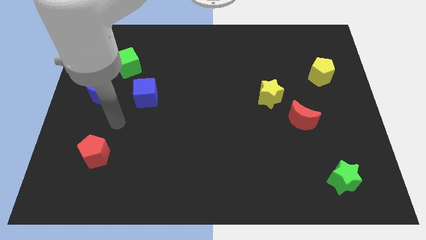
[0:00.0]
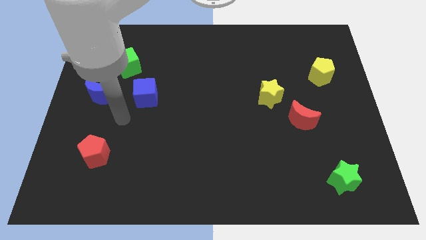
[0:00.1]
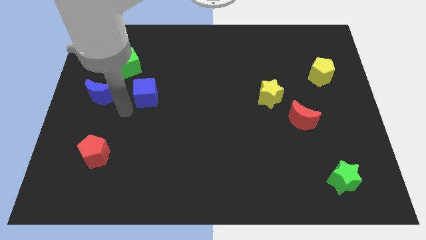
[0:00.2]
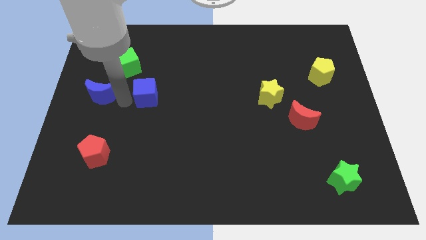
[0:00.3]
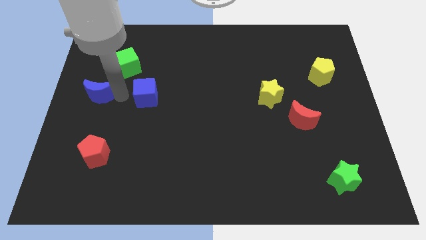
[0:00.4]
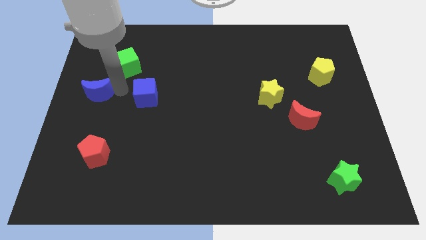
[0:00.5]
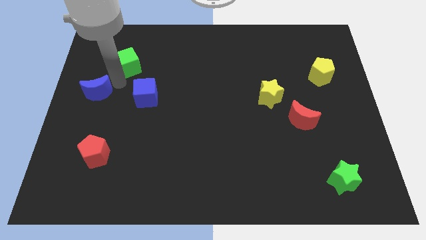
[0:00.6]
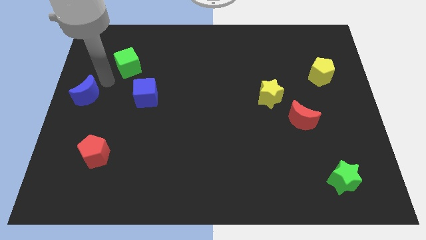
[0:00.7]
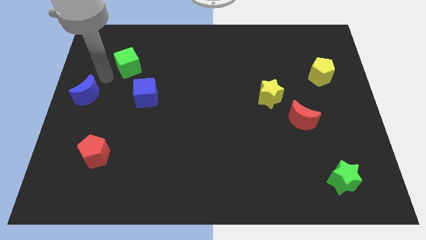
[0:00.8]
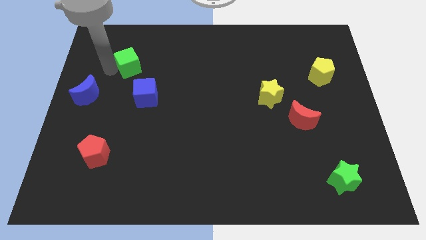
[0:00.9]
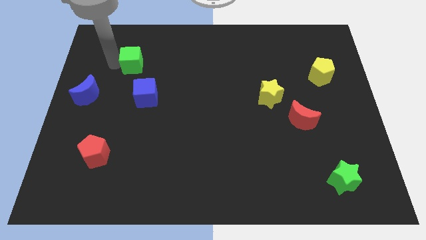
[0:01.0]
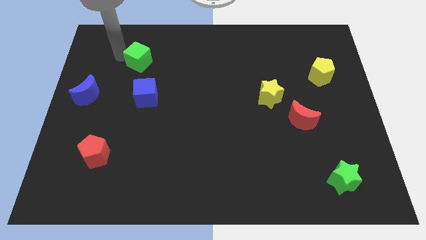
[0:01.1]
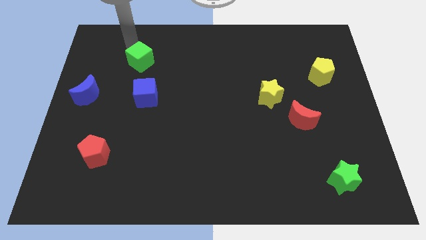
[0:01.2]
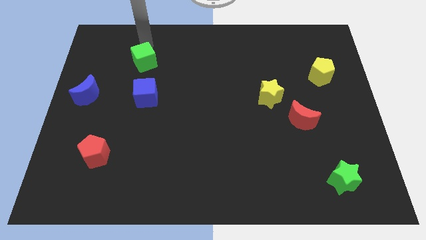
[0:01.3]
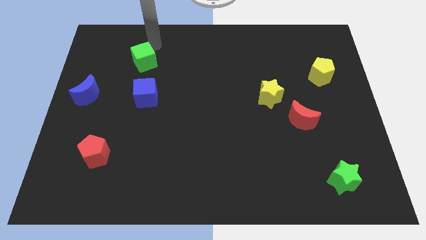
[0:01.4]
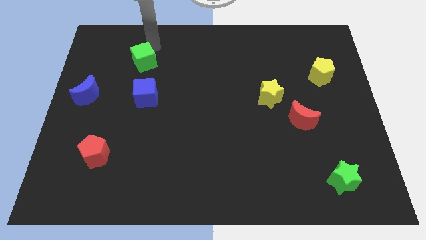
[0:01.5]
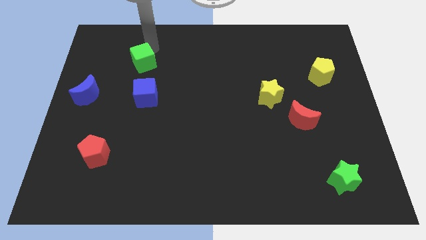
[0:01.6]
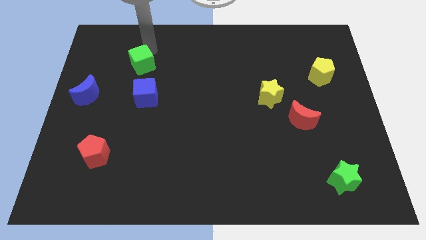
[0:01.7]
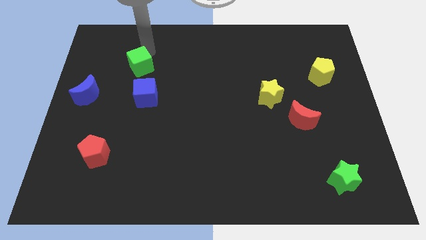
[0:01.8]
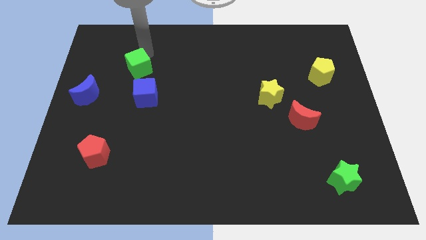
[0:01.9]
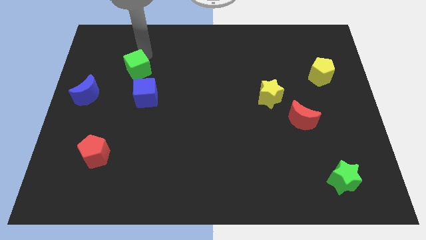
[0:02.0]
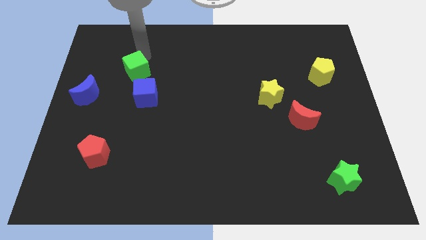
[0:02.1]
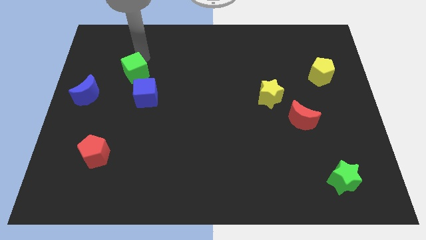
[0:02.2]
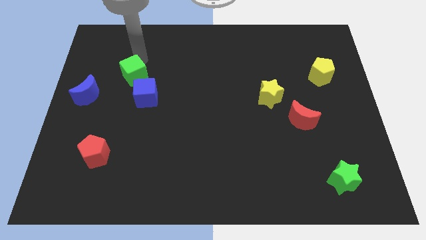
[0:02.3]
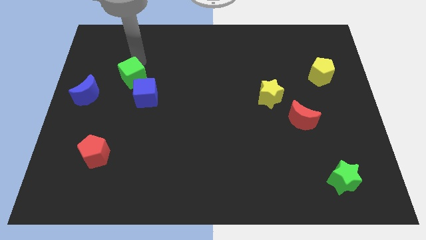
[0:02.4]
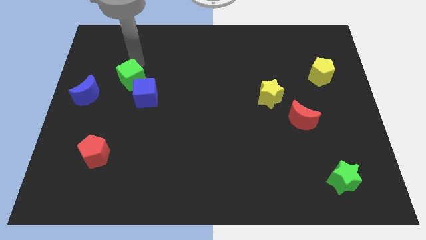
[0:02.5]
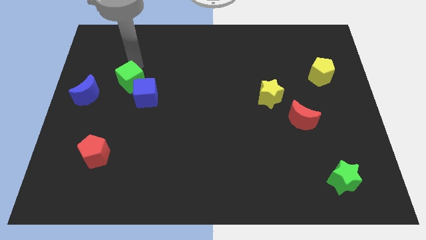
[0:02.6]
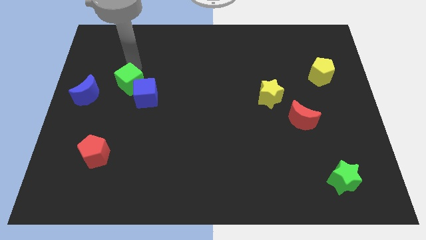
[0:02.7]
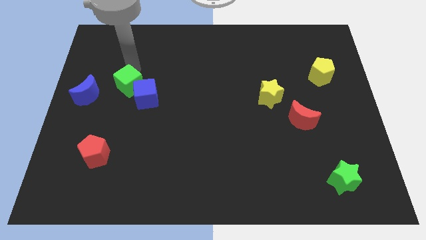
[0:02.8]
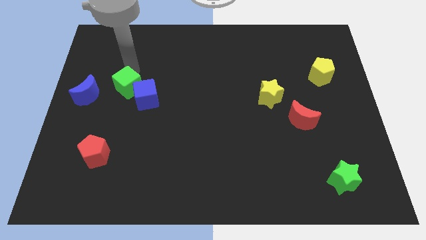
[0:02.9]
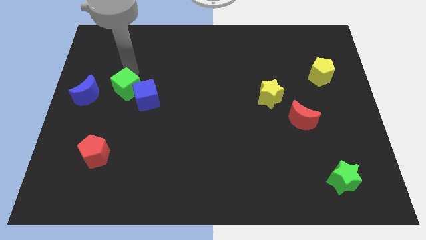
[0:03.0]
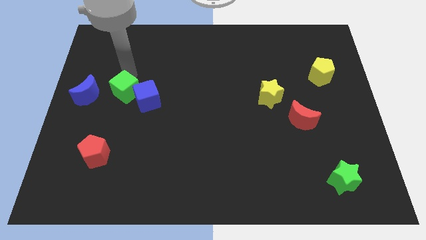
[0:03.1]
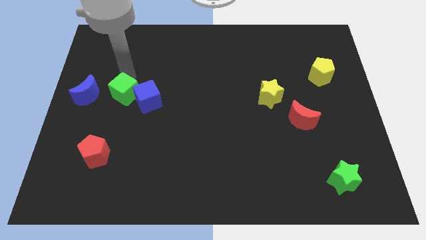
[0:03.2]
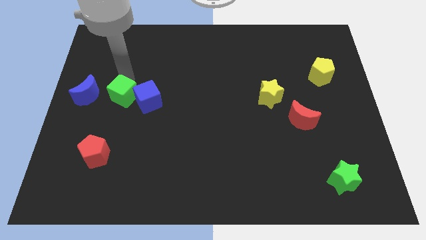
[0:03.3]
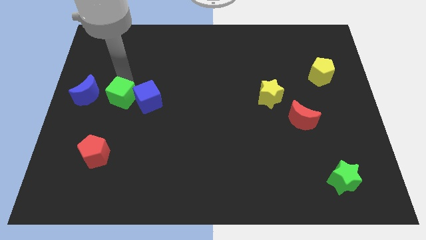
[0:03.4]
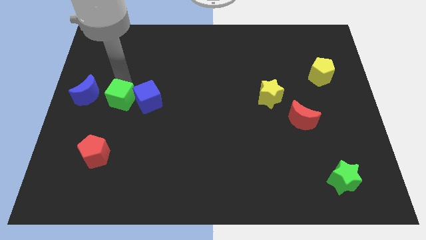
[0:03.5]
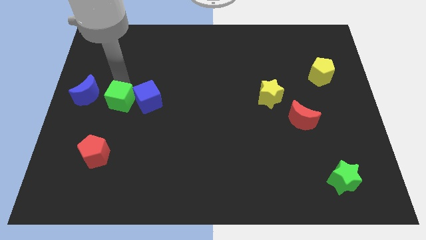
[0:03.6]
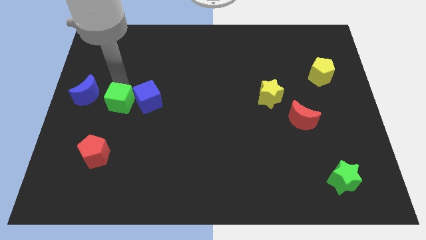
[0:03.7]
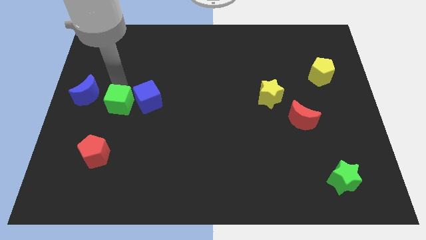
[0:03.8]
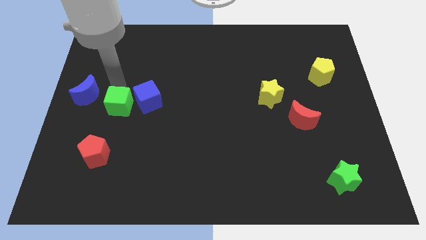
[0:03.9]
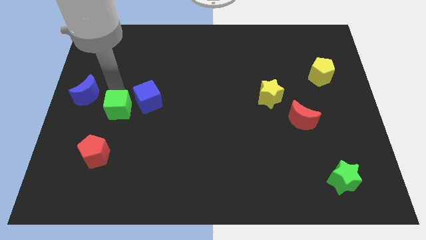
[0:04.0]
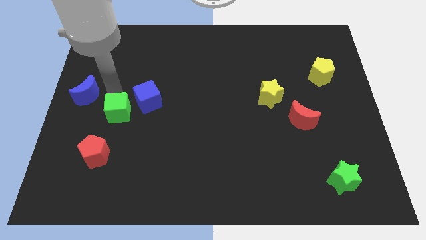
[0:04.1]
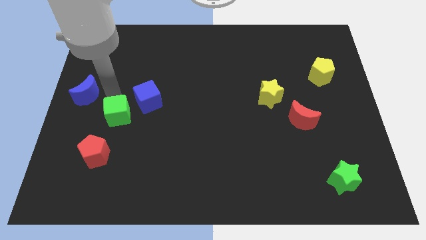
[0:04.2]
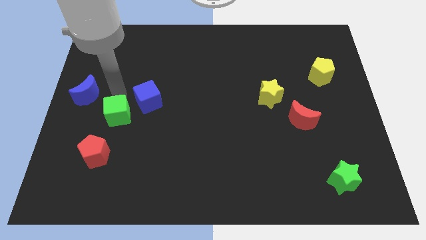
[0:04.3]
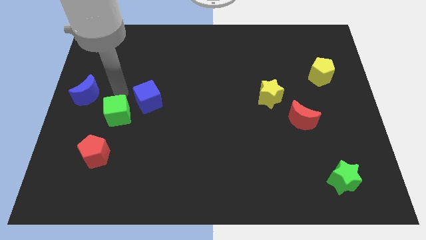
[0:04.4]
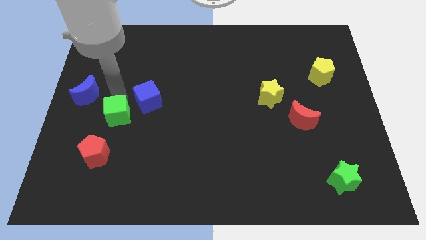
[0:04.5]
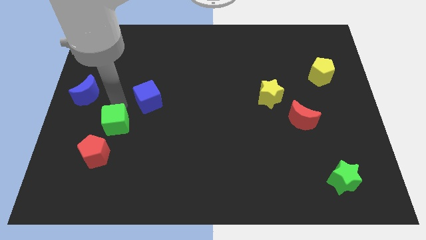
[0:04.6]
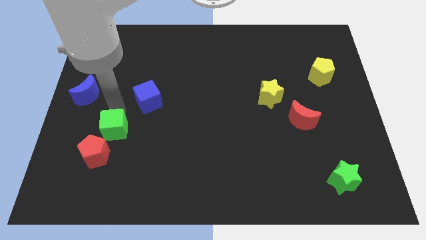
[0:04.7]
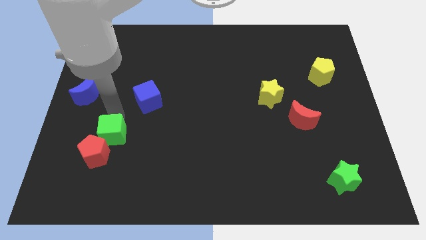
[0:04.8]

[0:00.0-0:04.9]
push the green cube downwards

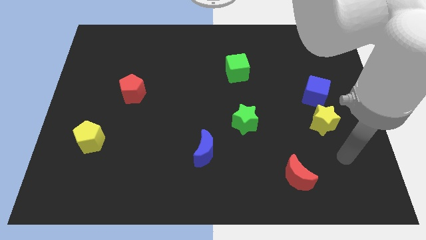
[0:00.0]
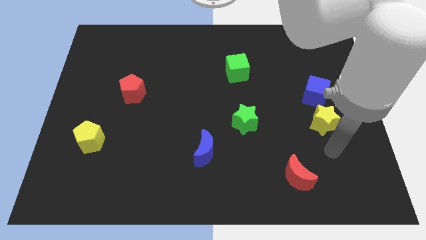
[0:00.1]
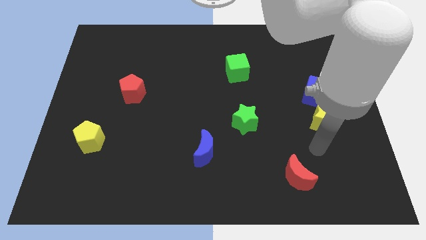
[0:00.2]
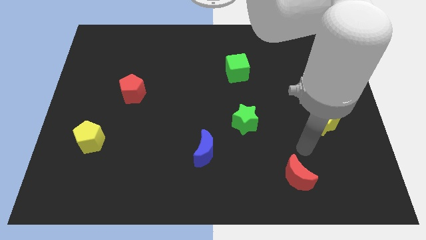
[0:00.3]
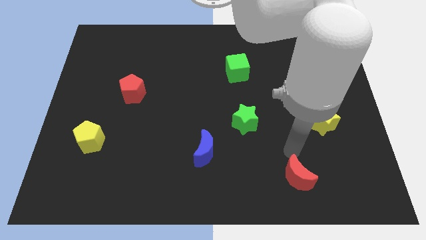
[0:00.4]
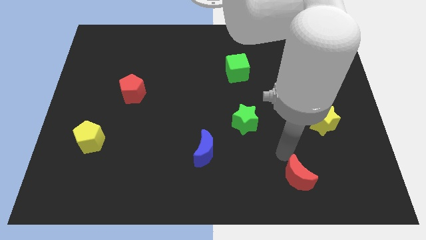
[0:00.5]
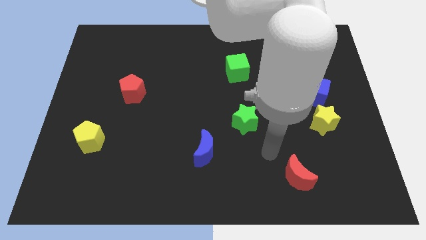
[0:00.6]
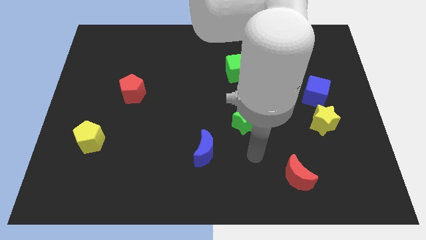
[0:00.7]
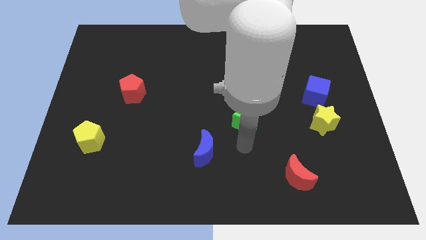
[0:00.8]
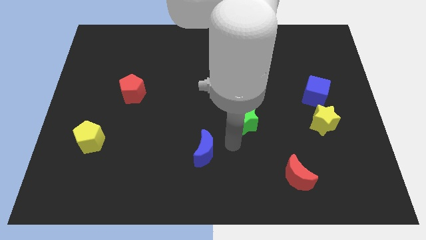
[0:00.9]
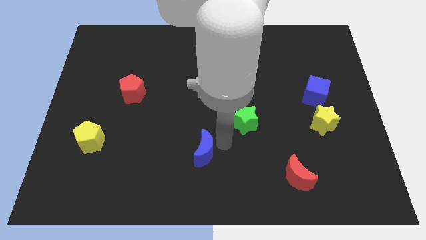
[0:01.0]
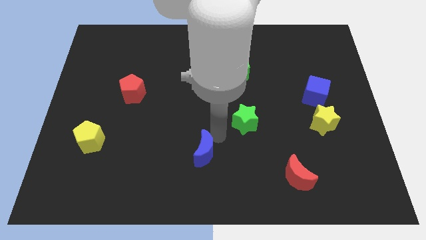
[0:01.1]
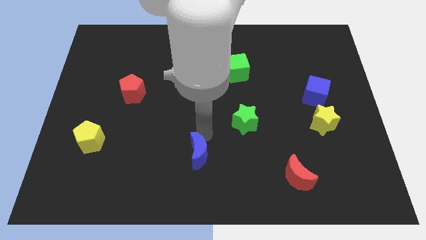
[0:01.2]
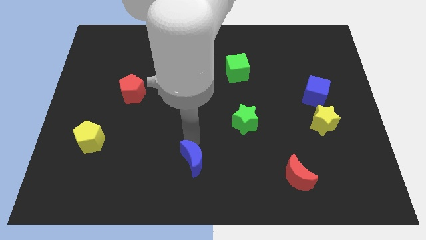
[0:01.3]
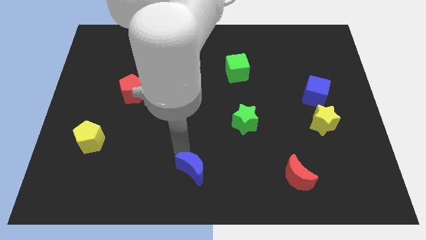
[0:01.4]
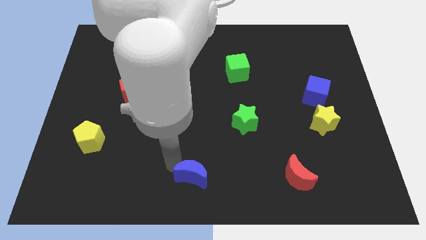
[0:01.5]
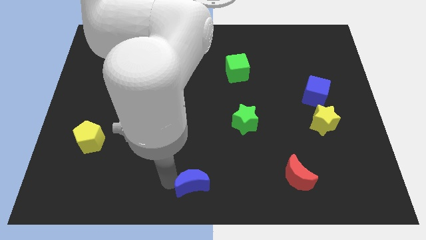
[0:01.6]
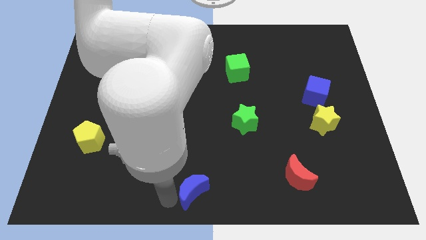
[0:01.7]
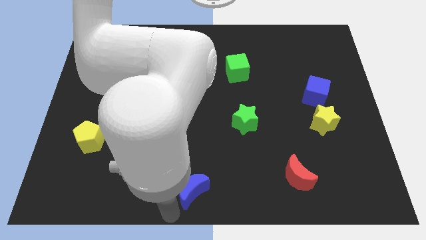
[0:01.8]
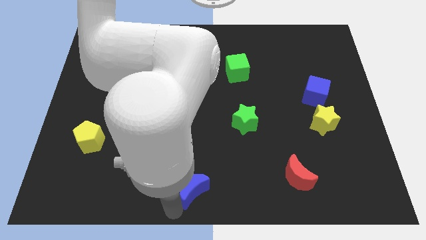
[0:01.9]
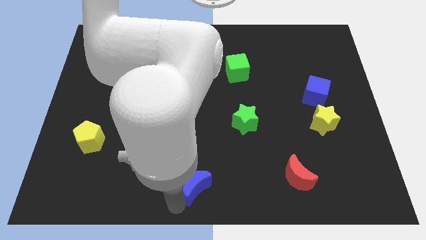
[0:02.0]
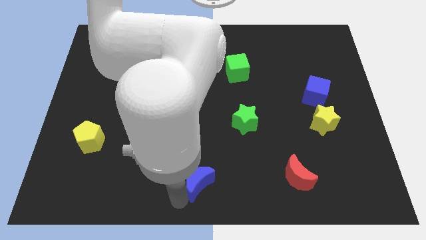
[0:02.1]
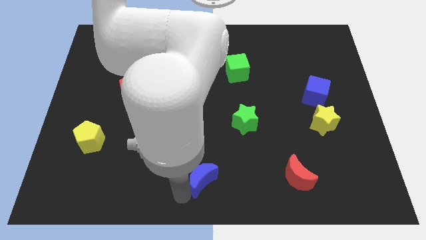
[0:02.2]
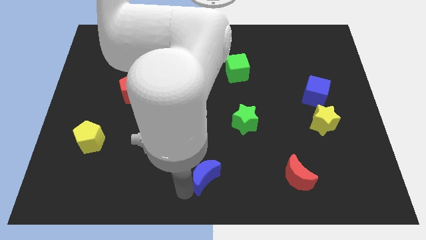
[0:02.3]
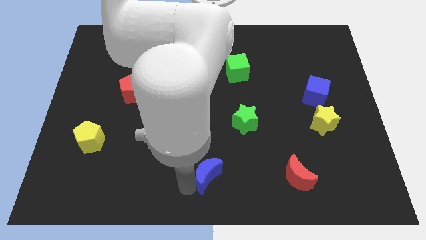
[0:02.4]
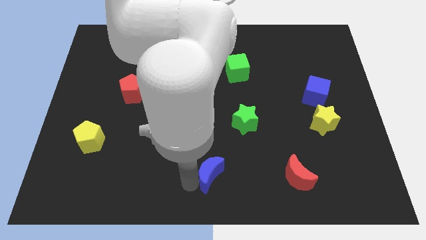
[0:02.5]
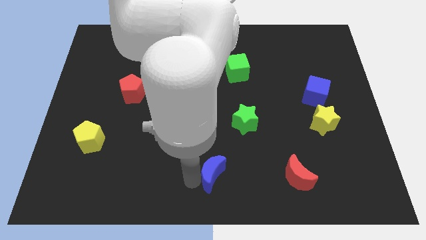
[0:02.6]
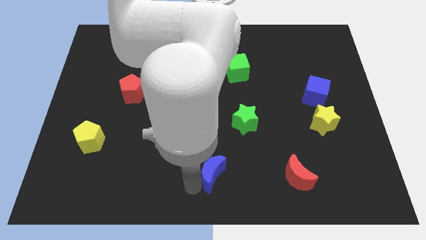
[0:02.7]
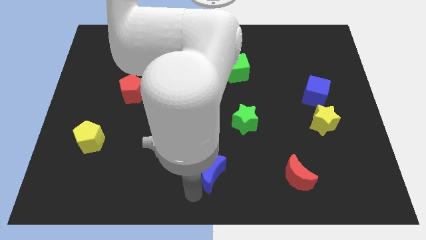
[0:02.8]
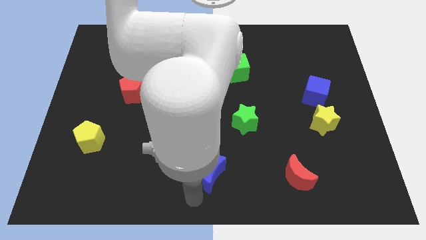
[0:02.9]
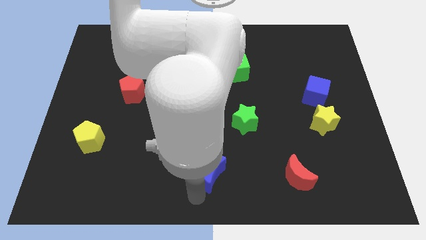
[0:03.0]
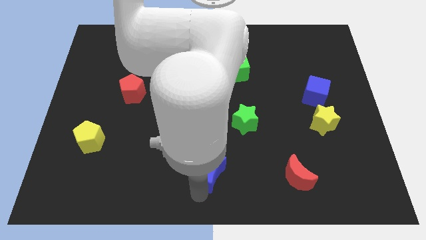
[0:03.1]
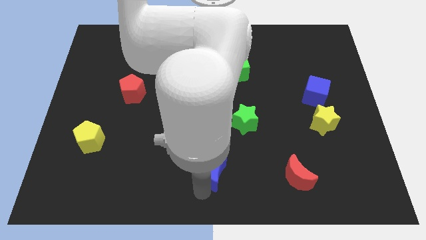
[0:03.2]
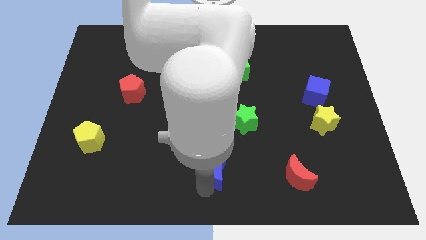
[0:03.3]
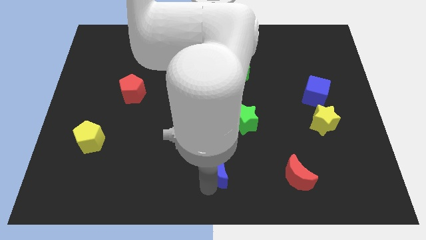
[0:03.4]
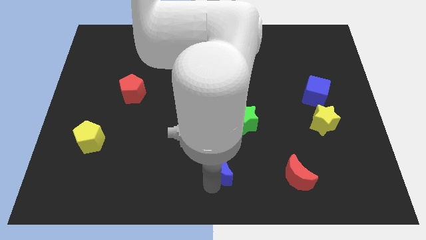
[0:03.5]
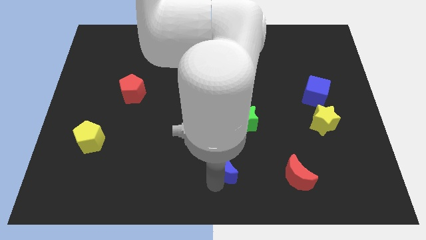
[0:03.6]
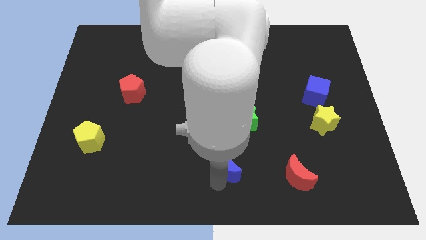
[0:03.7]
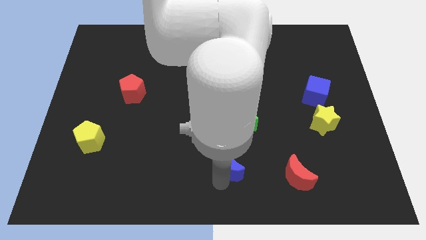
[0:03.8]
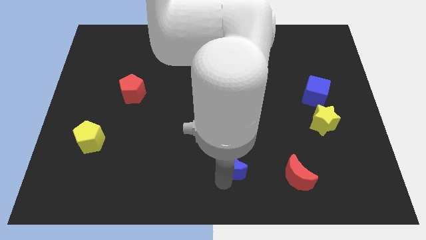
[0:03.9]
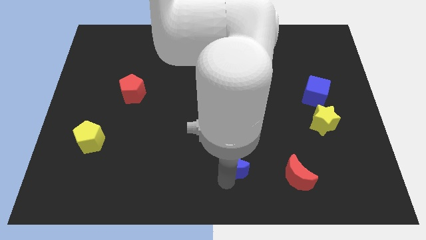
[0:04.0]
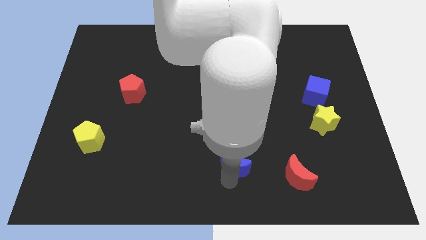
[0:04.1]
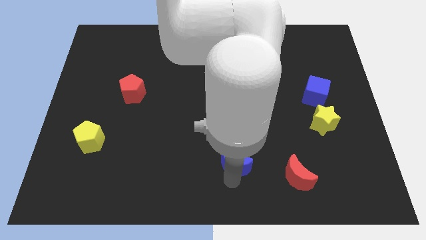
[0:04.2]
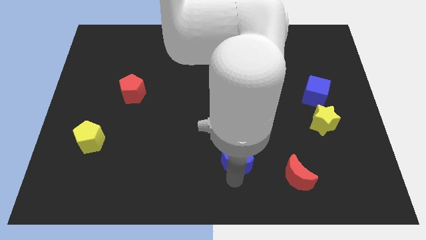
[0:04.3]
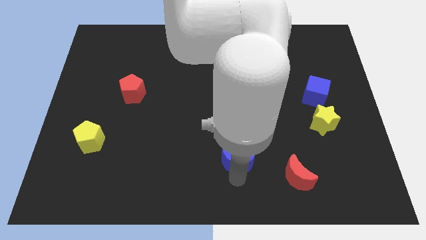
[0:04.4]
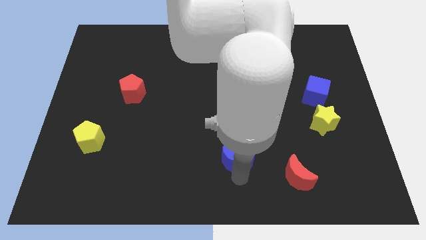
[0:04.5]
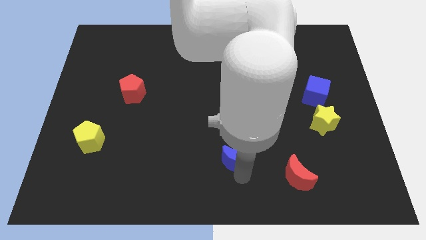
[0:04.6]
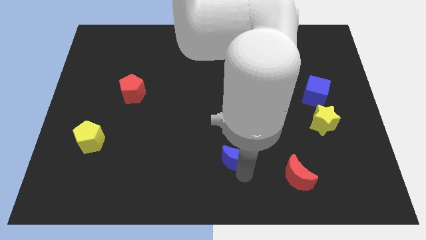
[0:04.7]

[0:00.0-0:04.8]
move the blue moon to the right a little bit
